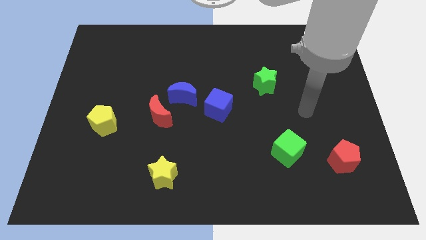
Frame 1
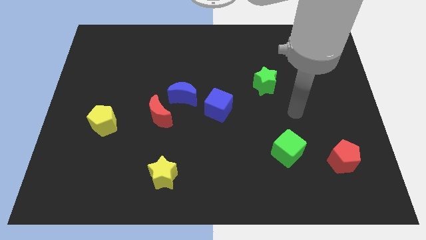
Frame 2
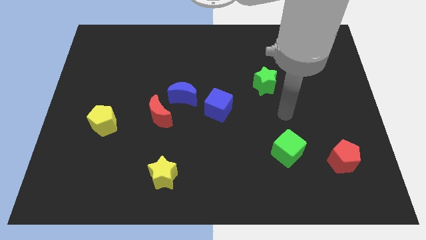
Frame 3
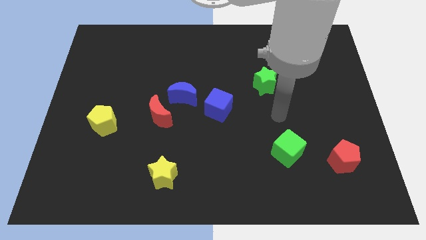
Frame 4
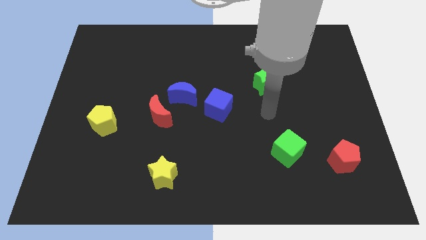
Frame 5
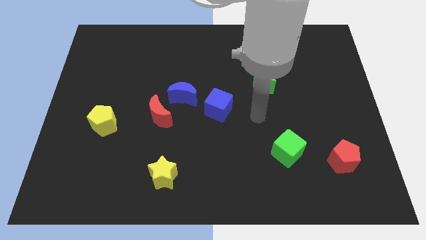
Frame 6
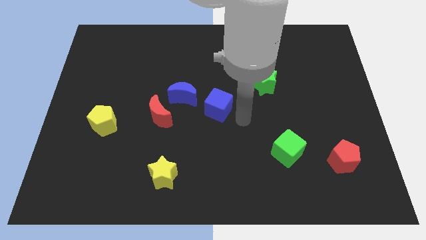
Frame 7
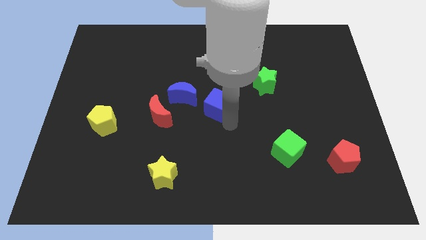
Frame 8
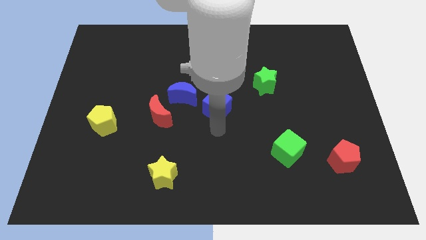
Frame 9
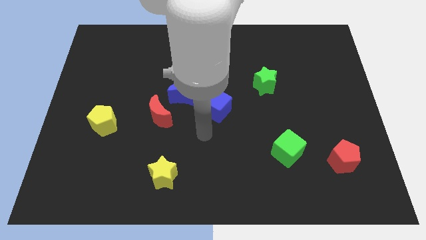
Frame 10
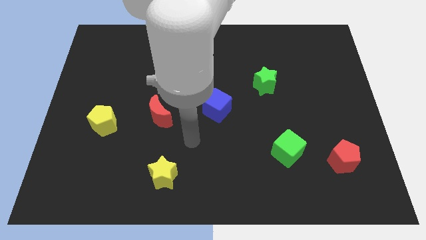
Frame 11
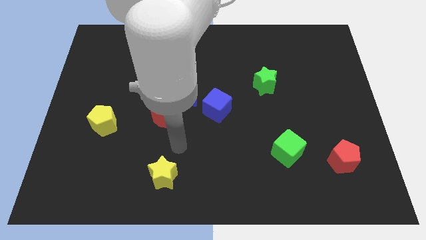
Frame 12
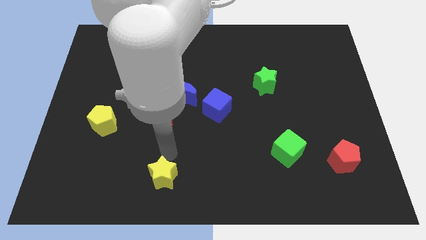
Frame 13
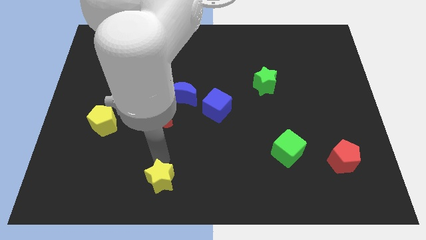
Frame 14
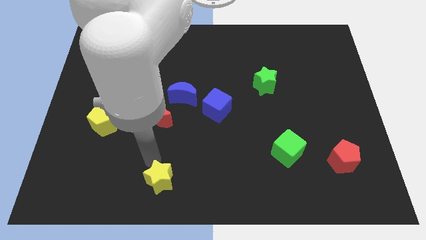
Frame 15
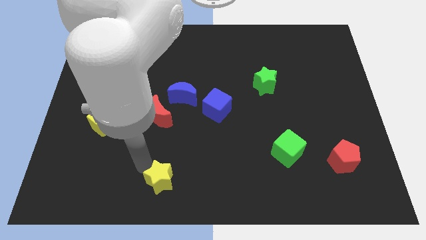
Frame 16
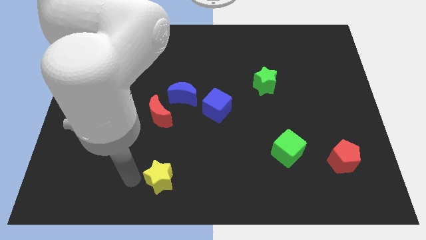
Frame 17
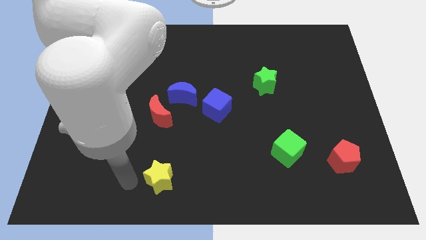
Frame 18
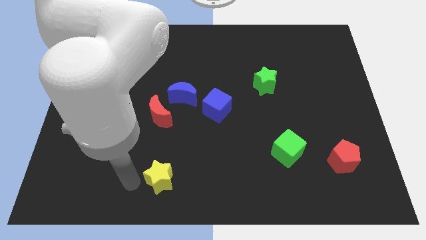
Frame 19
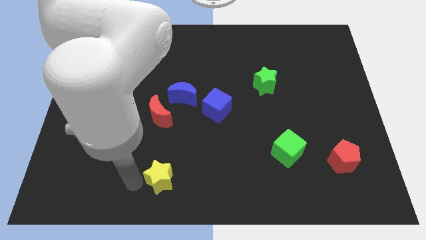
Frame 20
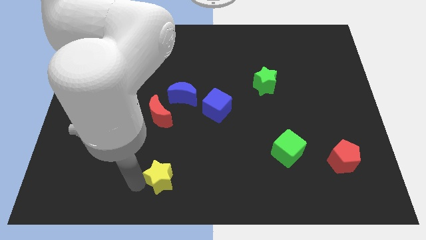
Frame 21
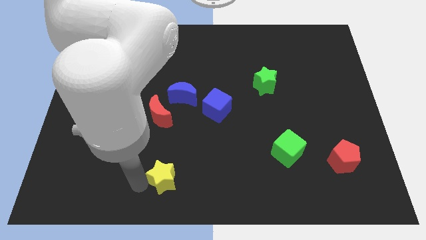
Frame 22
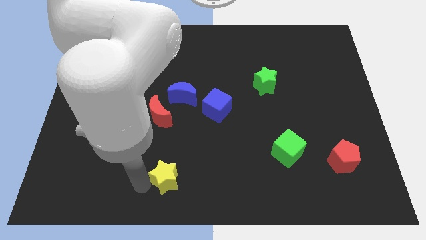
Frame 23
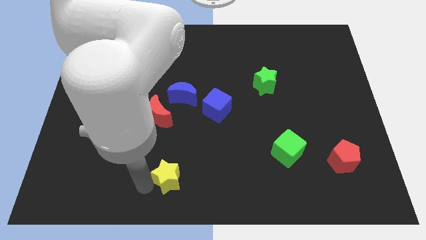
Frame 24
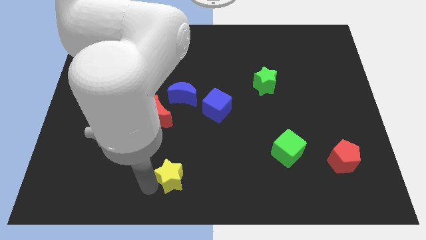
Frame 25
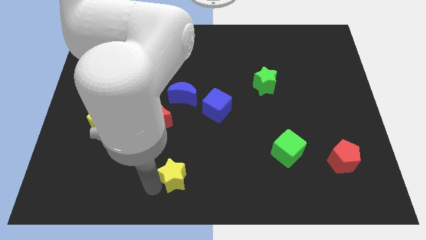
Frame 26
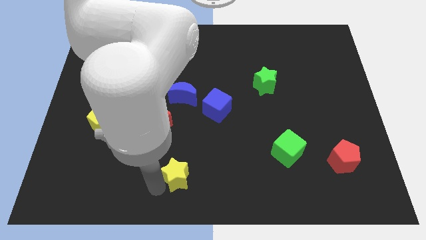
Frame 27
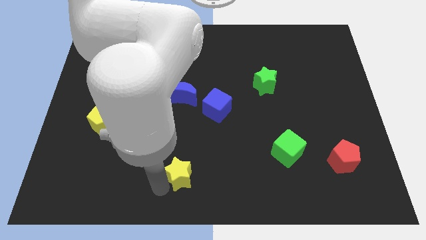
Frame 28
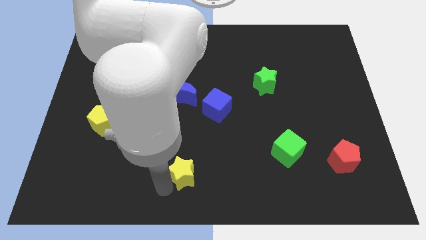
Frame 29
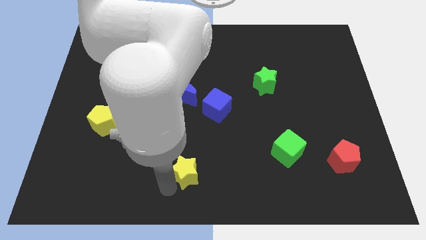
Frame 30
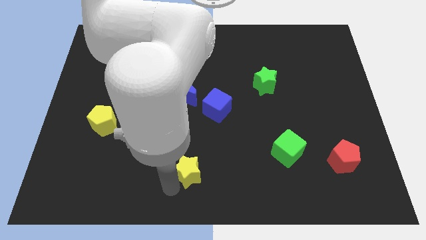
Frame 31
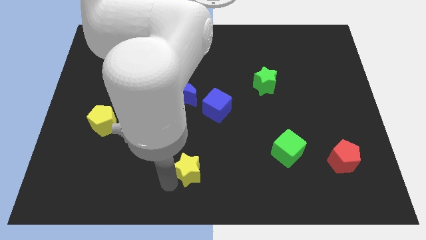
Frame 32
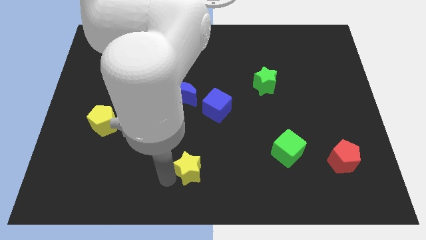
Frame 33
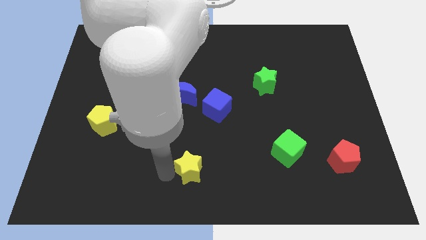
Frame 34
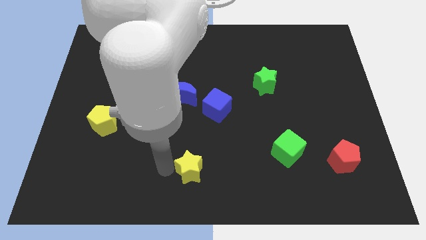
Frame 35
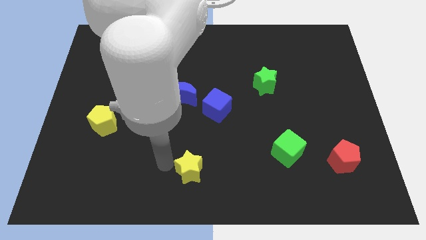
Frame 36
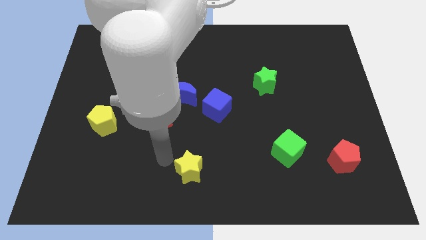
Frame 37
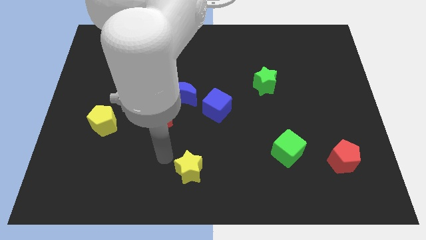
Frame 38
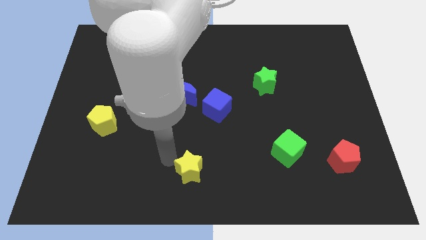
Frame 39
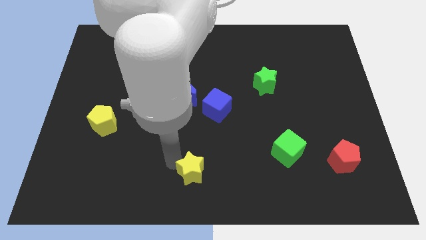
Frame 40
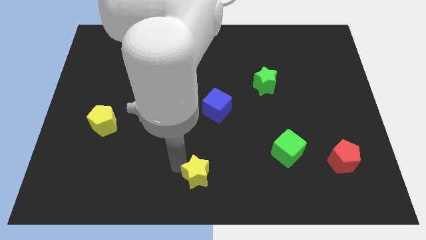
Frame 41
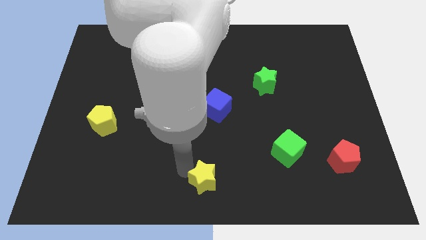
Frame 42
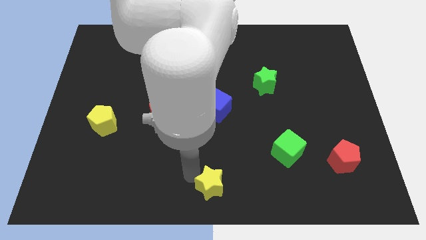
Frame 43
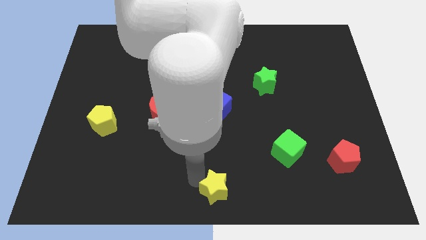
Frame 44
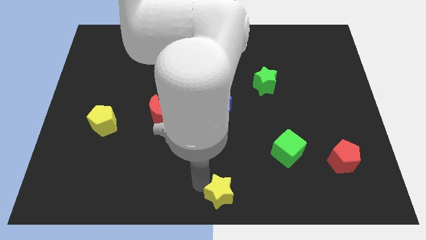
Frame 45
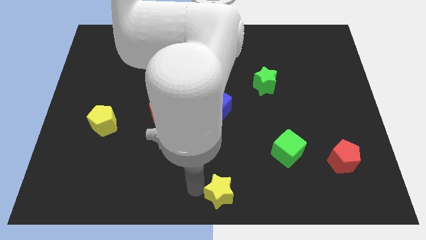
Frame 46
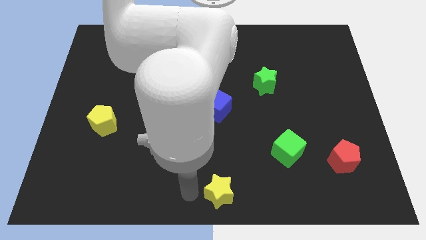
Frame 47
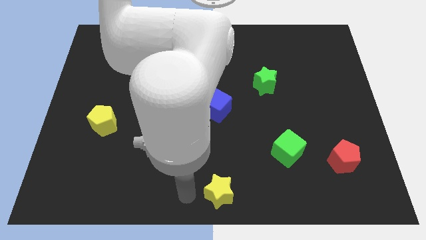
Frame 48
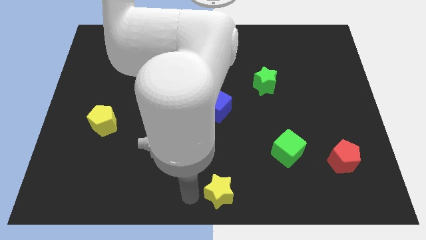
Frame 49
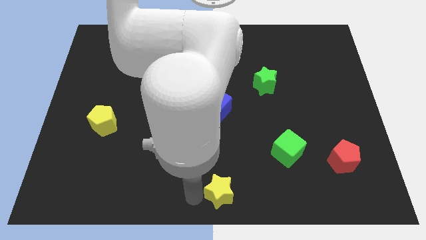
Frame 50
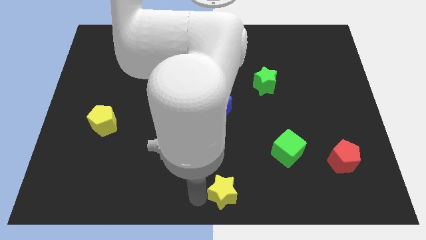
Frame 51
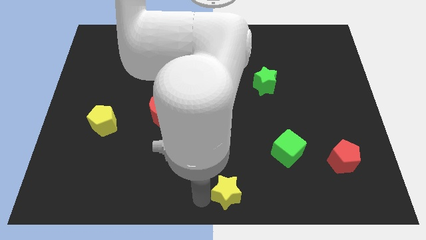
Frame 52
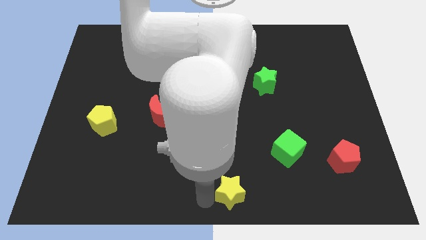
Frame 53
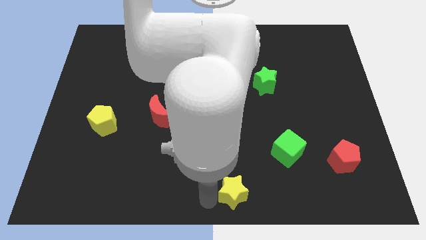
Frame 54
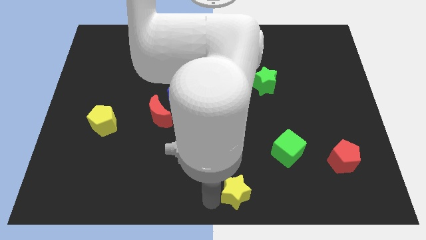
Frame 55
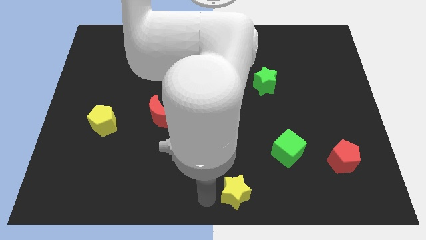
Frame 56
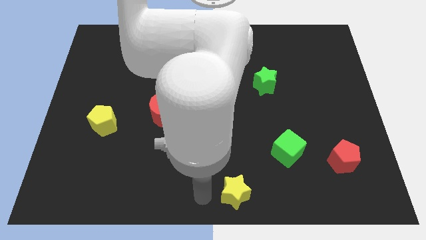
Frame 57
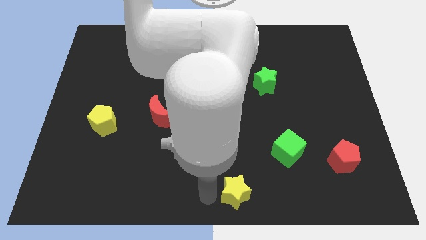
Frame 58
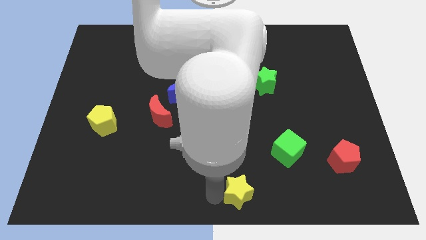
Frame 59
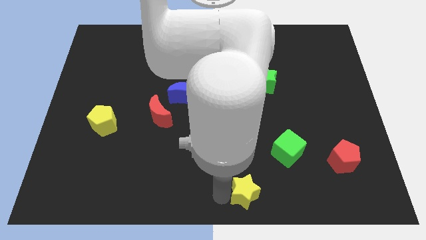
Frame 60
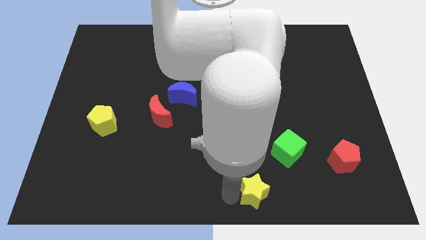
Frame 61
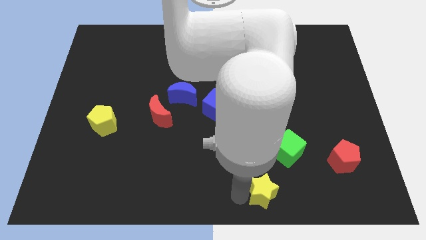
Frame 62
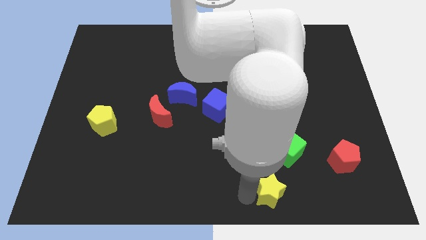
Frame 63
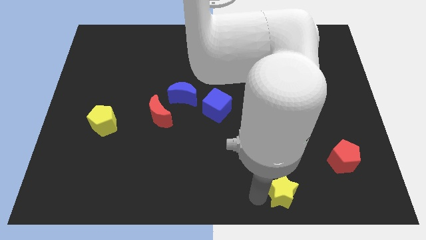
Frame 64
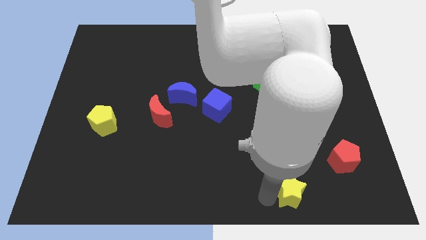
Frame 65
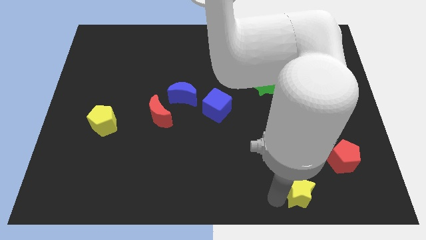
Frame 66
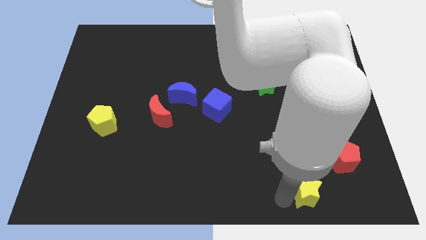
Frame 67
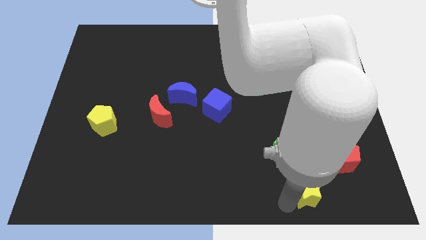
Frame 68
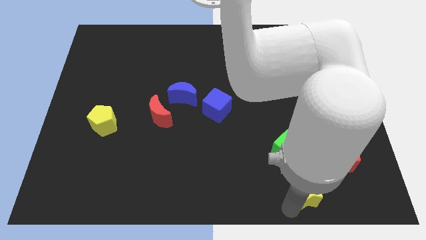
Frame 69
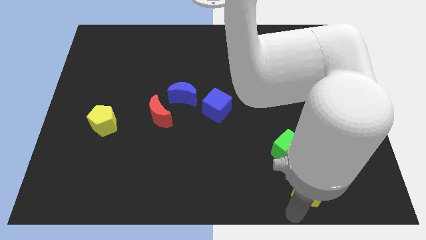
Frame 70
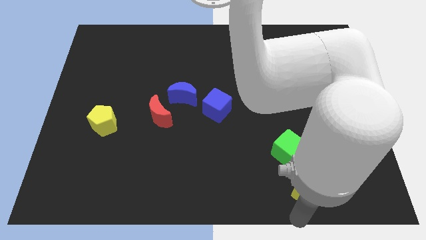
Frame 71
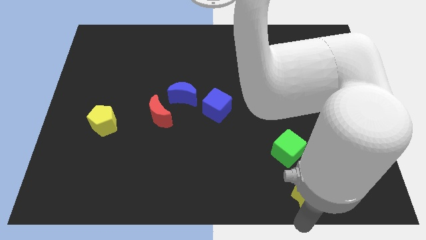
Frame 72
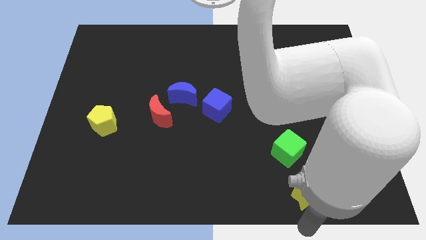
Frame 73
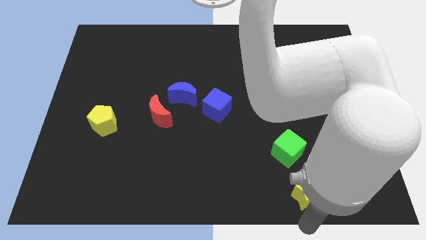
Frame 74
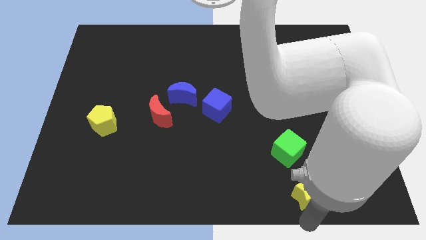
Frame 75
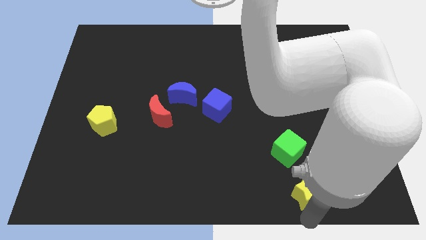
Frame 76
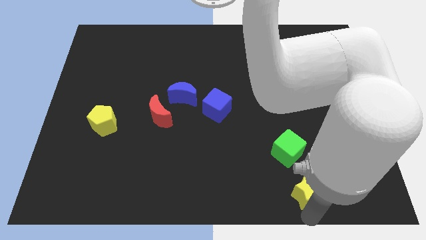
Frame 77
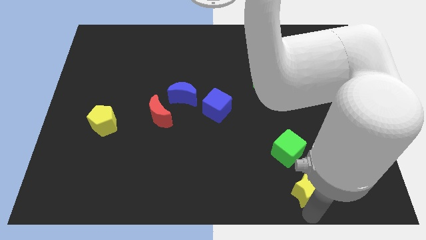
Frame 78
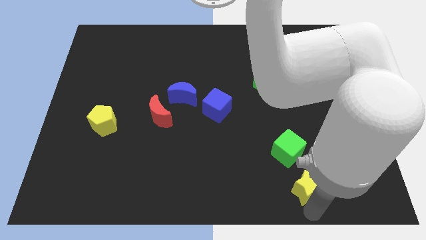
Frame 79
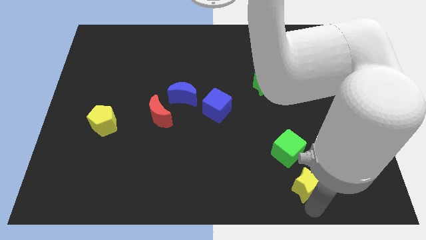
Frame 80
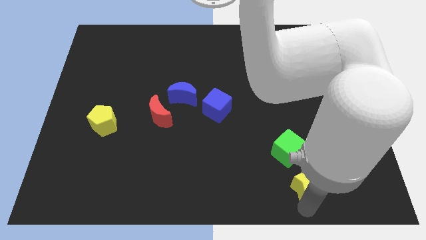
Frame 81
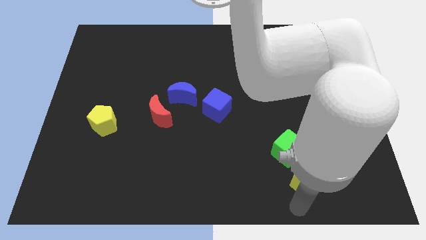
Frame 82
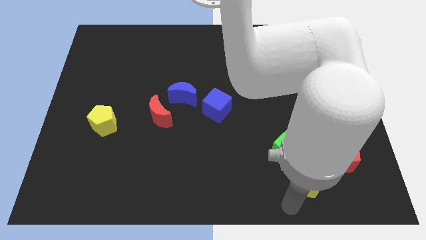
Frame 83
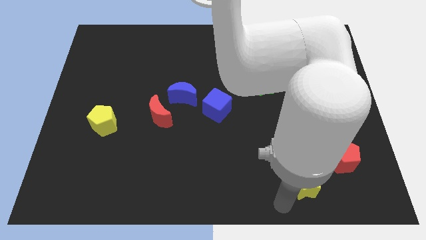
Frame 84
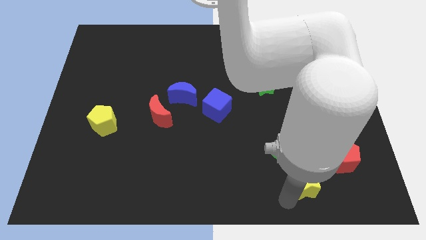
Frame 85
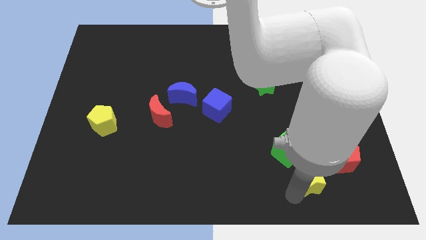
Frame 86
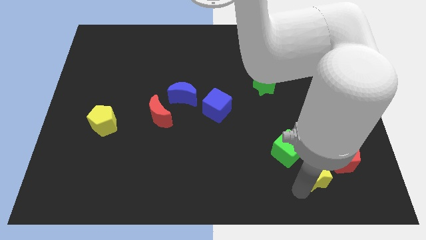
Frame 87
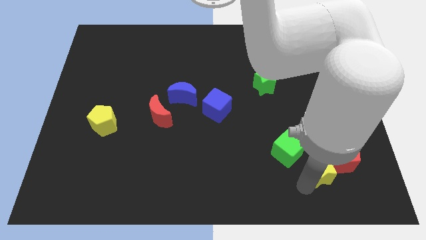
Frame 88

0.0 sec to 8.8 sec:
slide the yellow star towards the red pentagon
